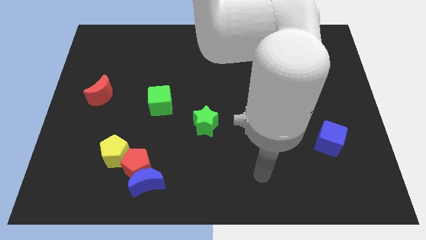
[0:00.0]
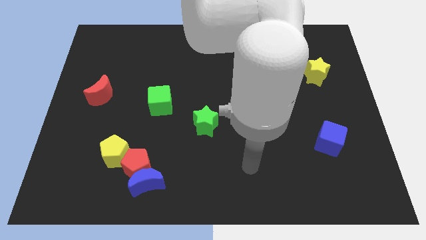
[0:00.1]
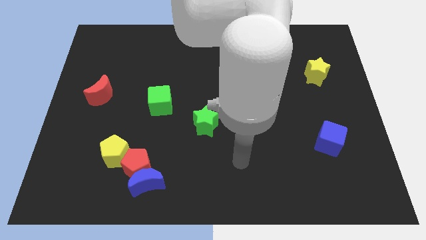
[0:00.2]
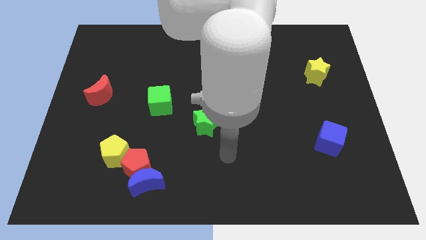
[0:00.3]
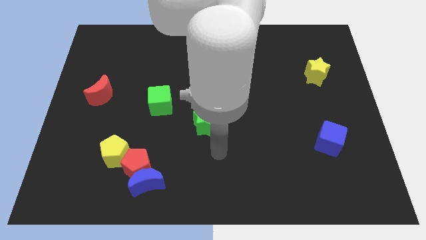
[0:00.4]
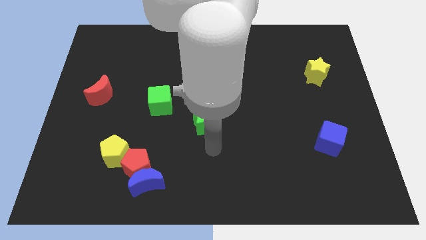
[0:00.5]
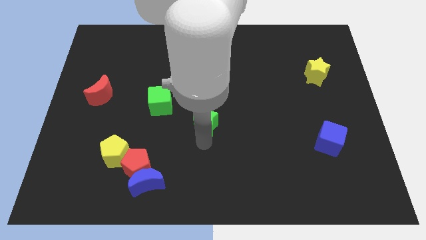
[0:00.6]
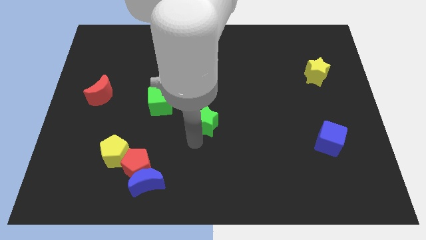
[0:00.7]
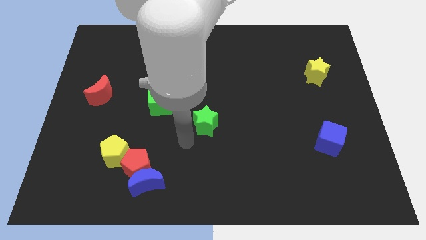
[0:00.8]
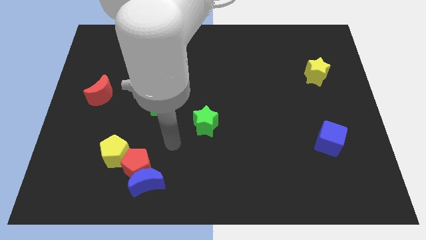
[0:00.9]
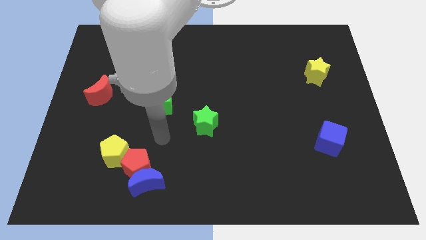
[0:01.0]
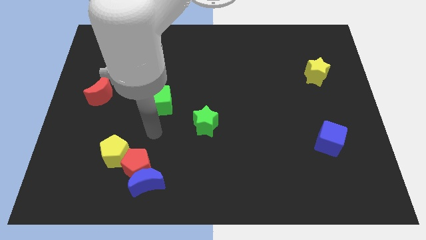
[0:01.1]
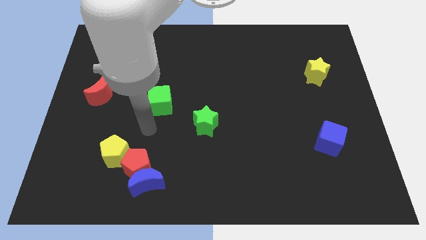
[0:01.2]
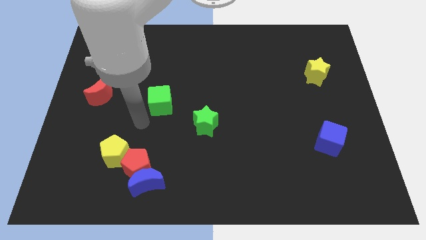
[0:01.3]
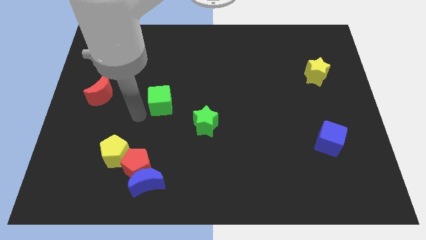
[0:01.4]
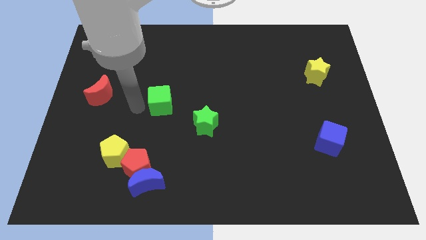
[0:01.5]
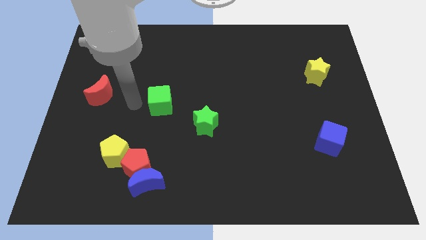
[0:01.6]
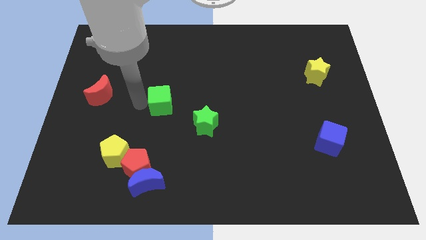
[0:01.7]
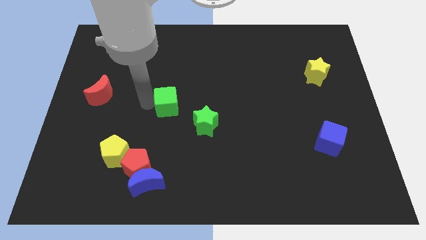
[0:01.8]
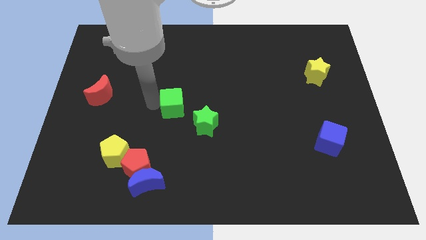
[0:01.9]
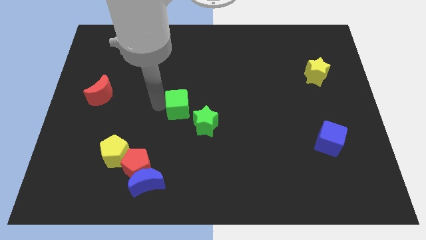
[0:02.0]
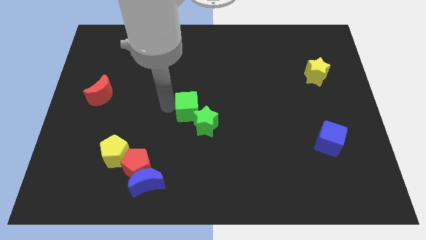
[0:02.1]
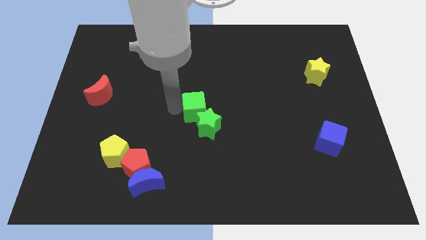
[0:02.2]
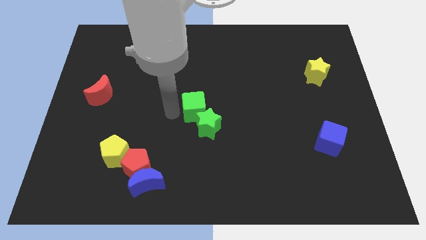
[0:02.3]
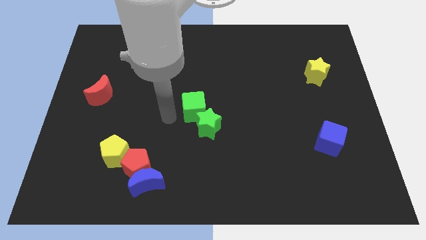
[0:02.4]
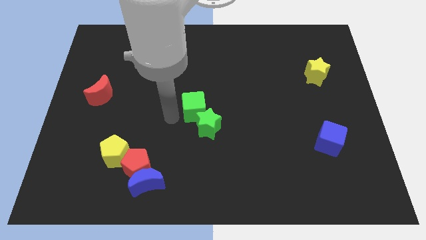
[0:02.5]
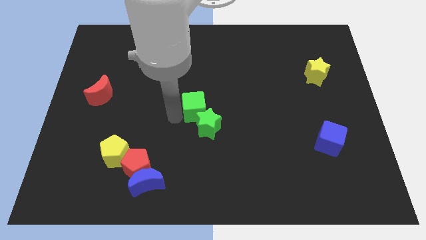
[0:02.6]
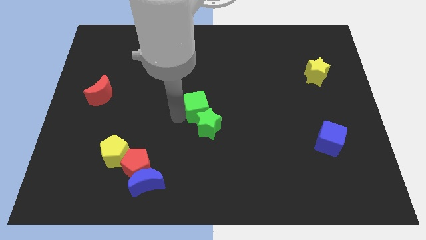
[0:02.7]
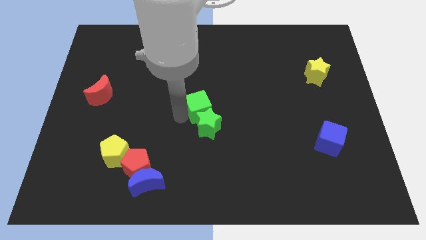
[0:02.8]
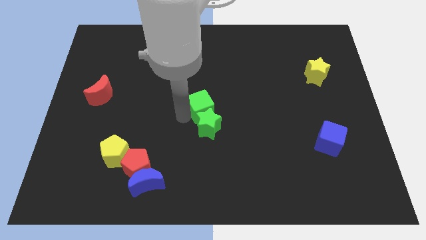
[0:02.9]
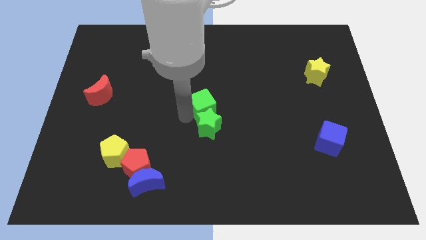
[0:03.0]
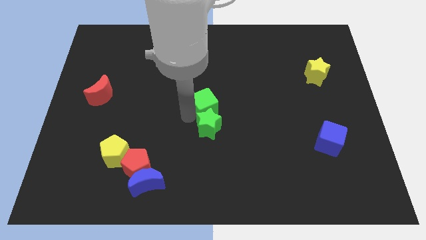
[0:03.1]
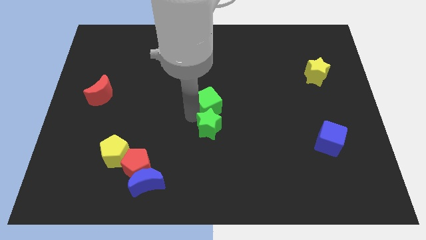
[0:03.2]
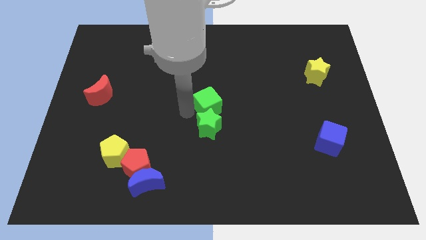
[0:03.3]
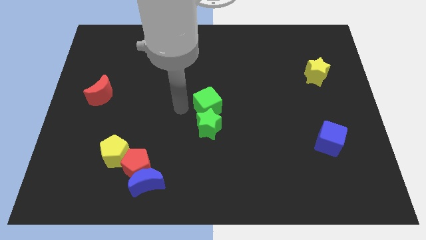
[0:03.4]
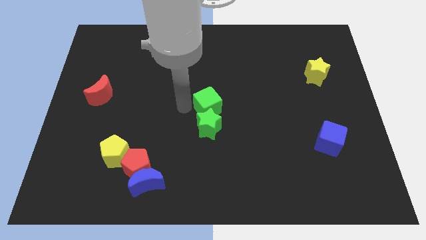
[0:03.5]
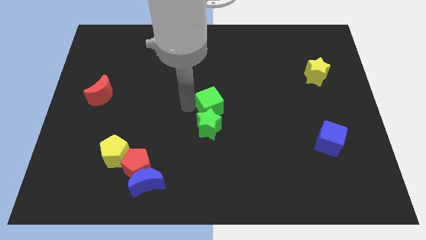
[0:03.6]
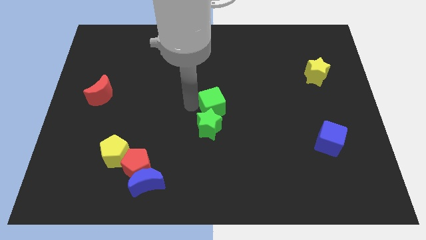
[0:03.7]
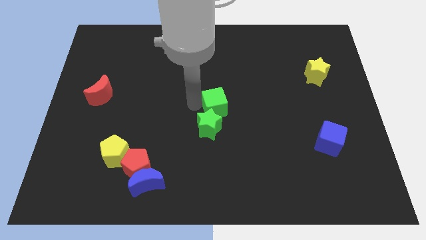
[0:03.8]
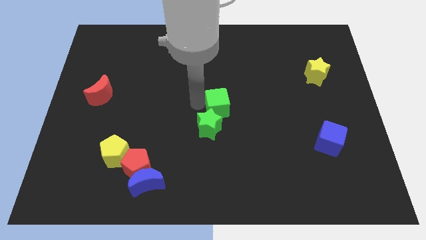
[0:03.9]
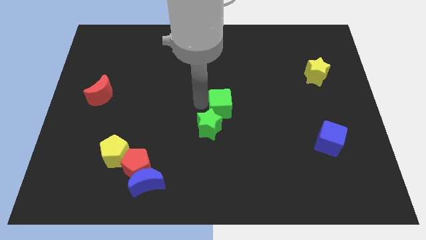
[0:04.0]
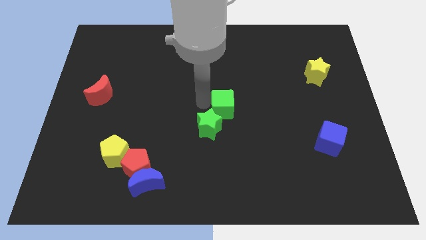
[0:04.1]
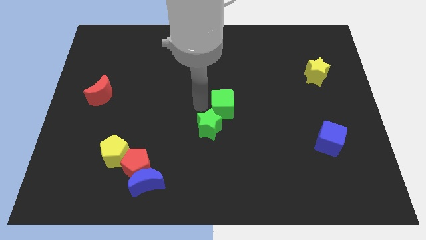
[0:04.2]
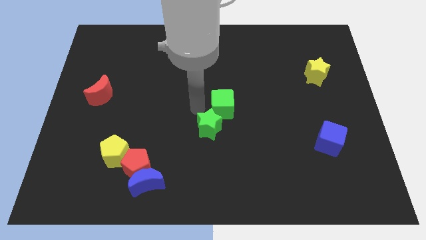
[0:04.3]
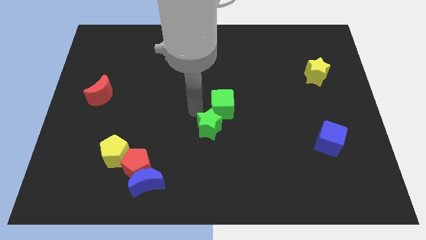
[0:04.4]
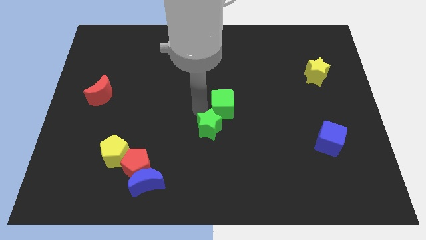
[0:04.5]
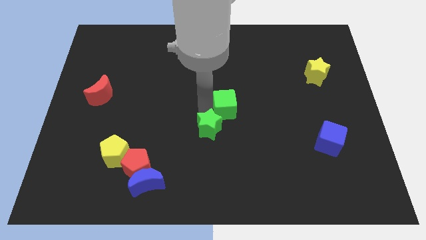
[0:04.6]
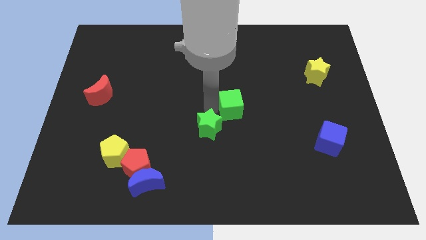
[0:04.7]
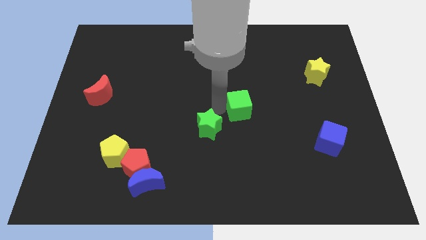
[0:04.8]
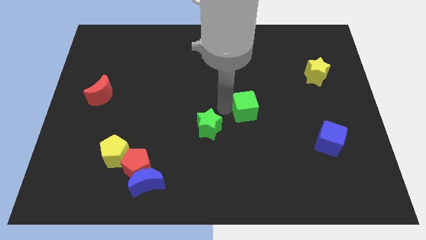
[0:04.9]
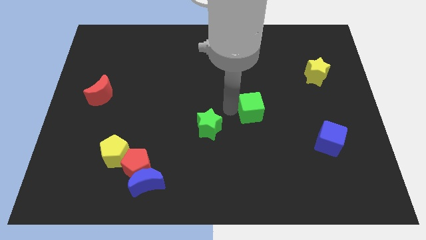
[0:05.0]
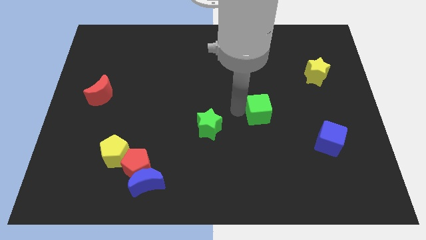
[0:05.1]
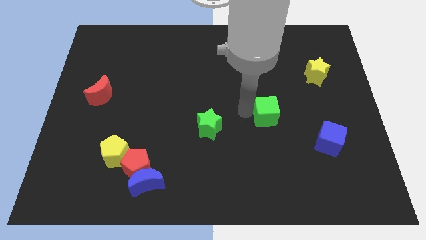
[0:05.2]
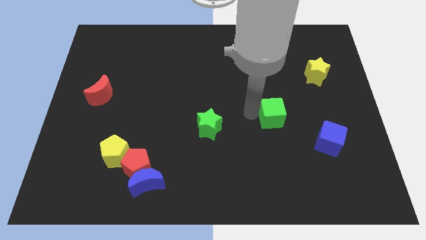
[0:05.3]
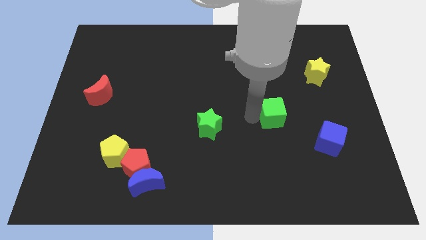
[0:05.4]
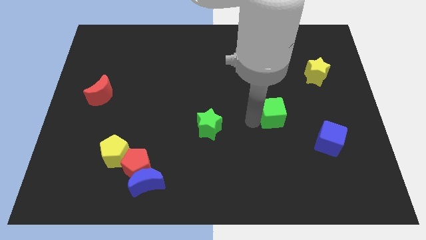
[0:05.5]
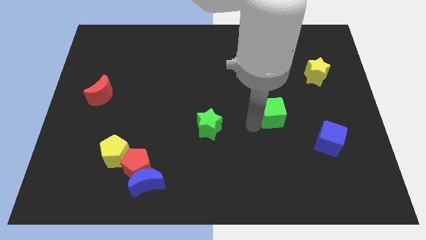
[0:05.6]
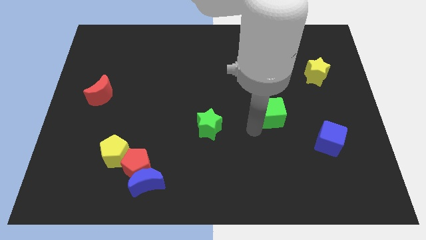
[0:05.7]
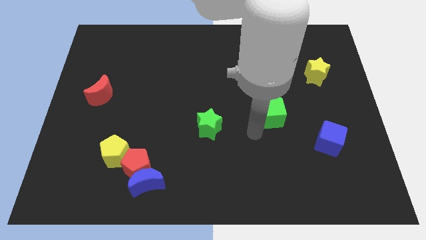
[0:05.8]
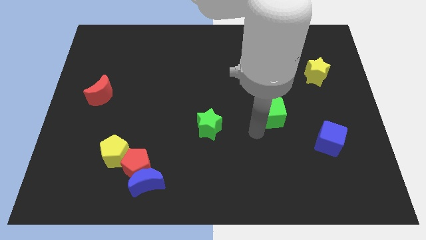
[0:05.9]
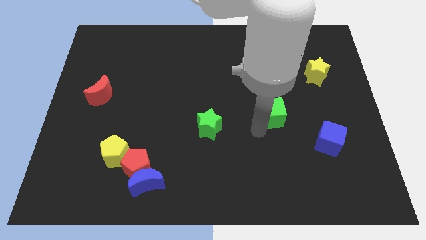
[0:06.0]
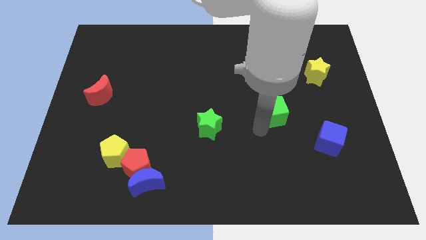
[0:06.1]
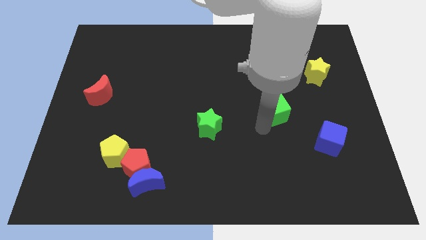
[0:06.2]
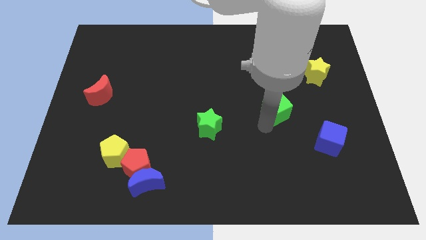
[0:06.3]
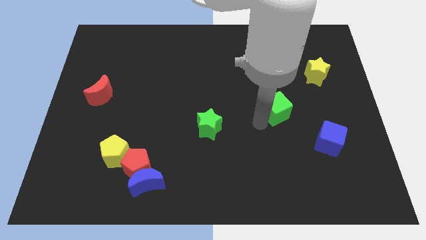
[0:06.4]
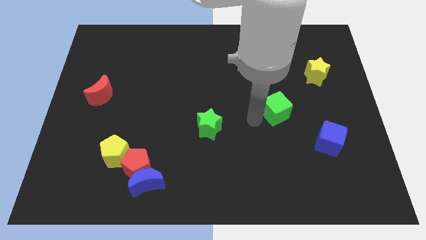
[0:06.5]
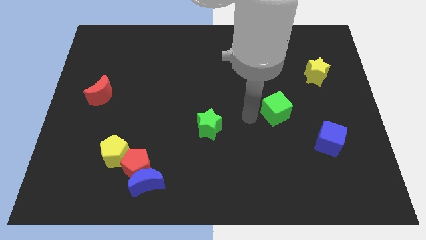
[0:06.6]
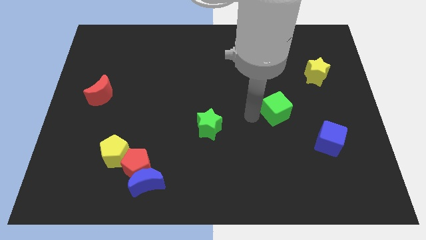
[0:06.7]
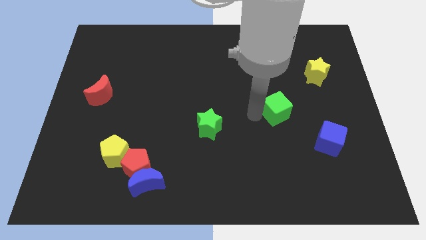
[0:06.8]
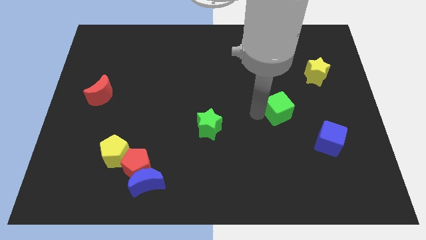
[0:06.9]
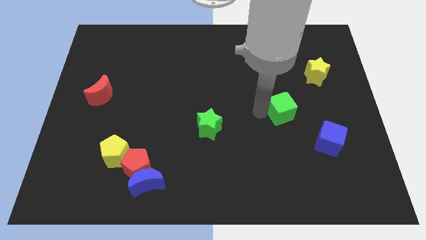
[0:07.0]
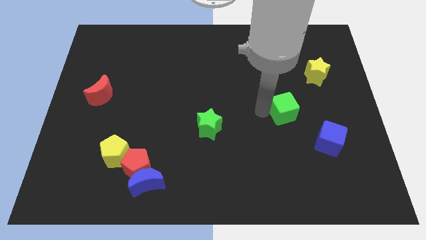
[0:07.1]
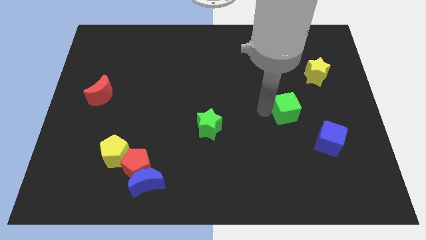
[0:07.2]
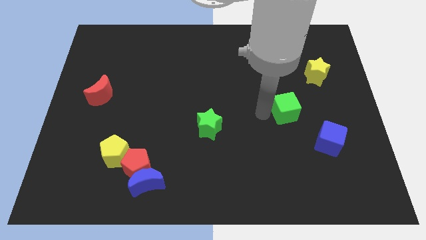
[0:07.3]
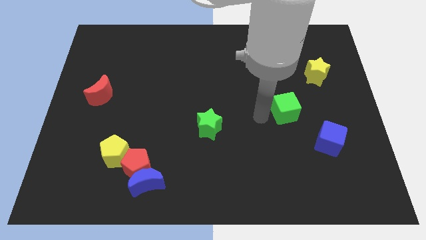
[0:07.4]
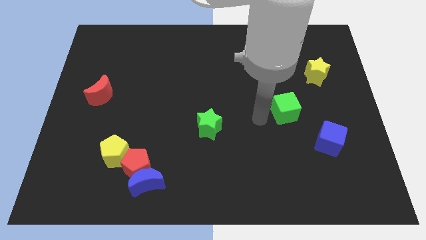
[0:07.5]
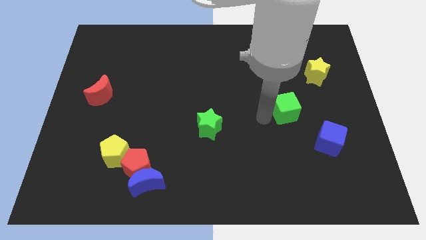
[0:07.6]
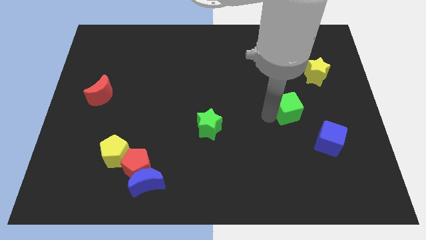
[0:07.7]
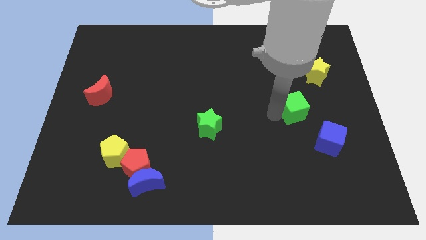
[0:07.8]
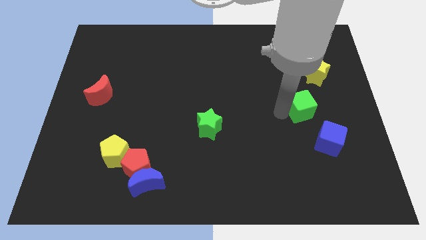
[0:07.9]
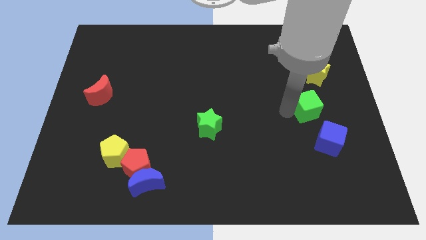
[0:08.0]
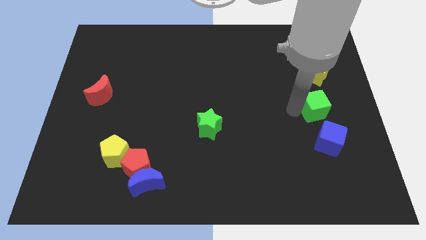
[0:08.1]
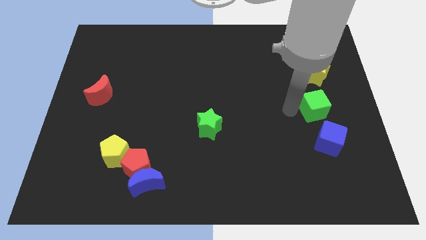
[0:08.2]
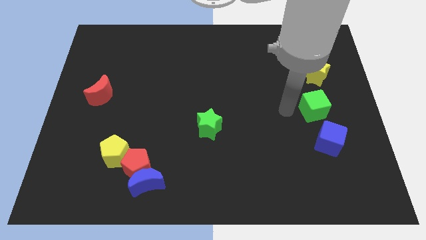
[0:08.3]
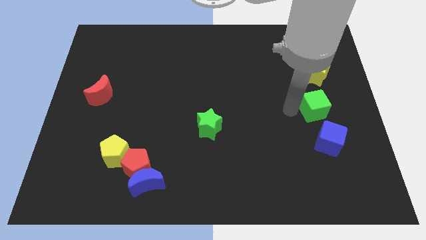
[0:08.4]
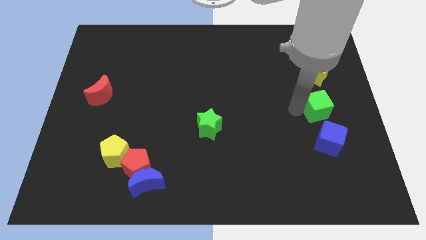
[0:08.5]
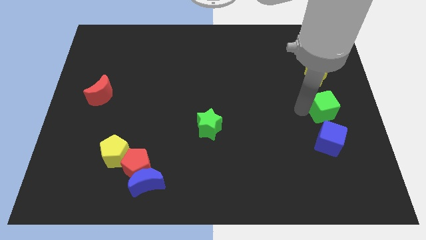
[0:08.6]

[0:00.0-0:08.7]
push the green cube to the center right
